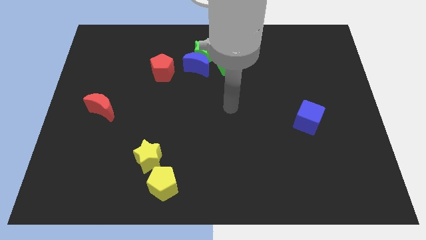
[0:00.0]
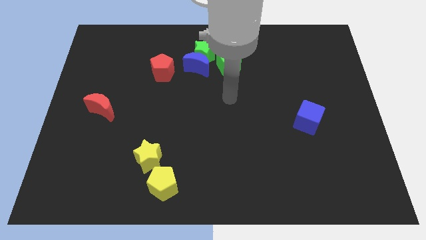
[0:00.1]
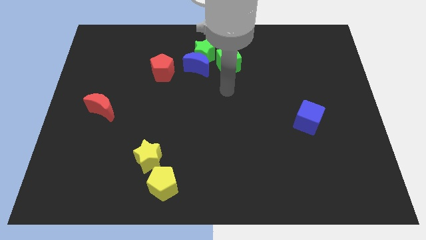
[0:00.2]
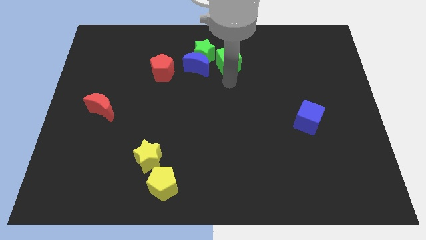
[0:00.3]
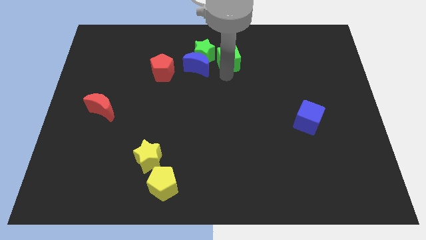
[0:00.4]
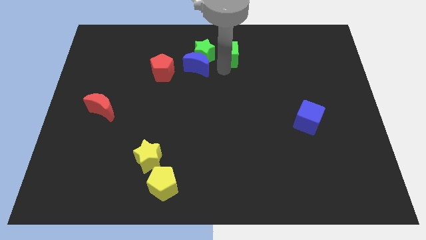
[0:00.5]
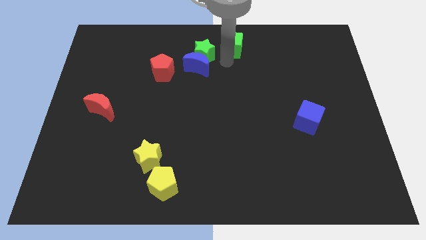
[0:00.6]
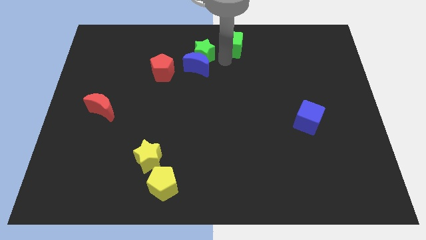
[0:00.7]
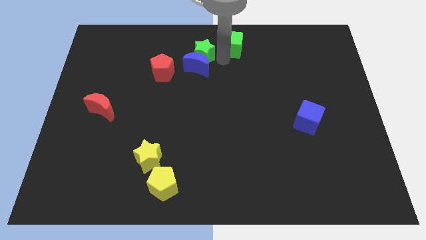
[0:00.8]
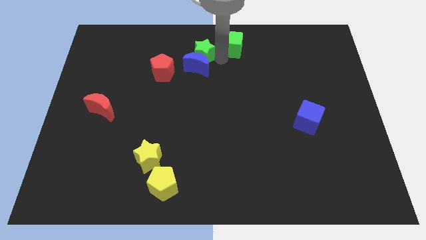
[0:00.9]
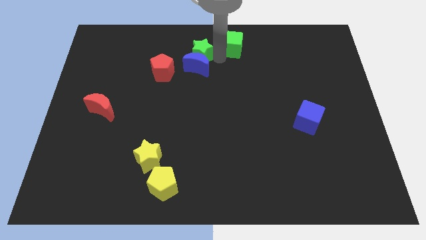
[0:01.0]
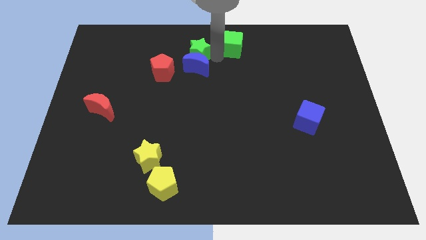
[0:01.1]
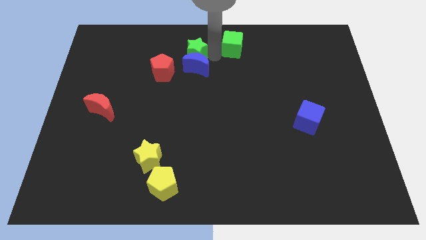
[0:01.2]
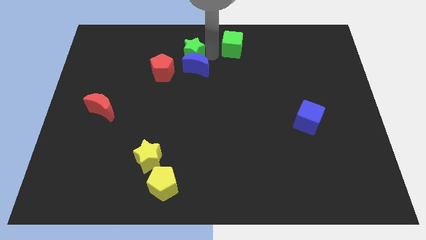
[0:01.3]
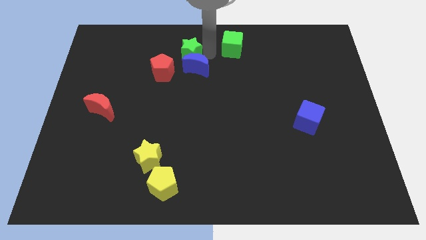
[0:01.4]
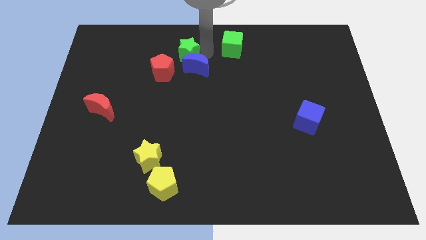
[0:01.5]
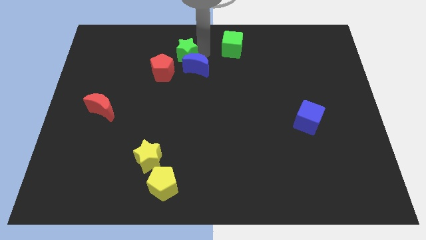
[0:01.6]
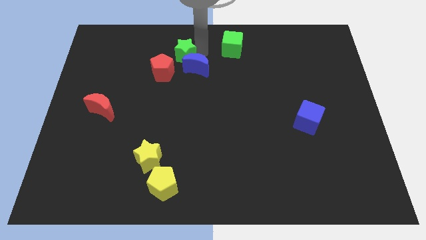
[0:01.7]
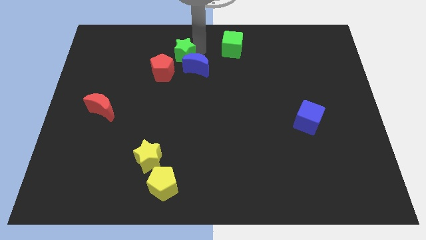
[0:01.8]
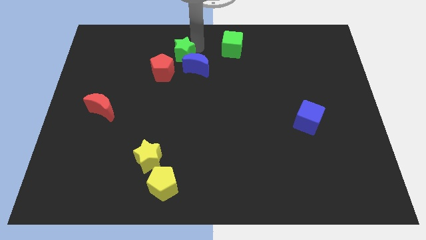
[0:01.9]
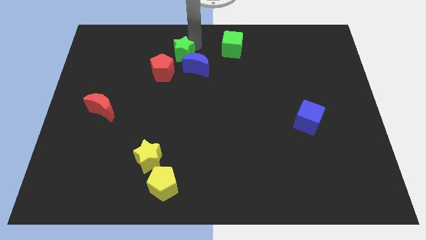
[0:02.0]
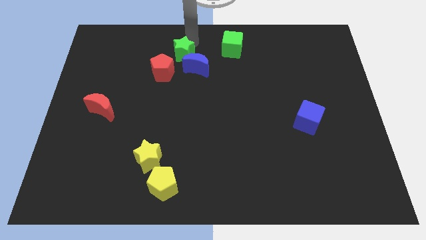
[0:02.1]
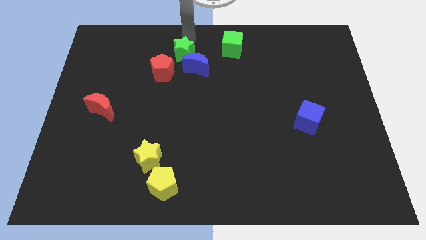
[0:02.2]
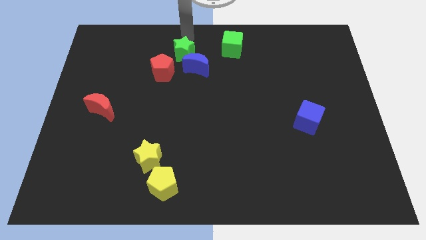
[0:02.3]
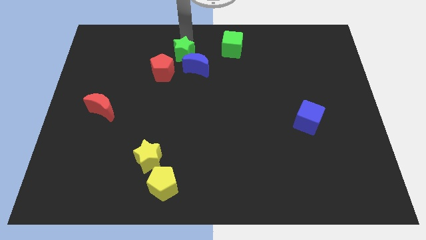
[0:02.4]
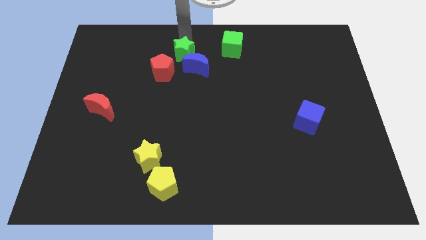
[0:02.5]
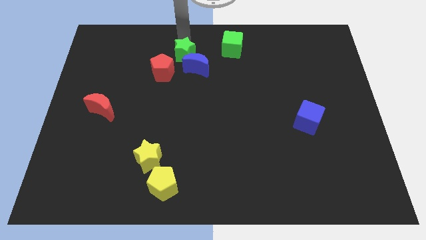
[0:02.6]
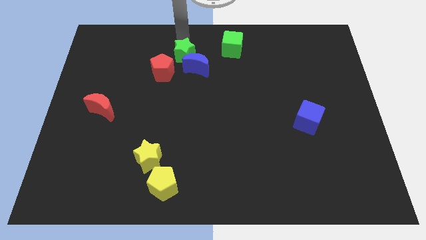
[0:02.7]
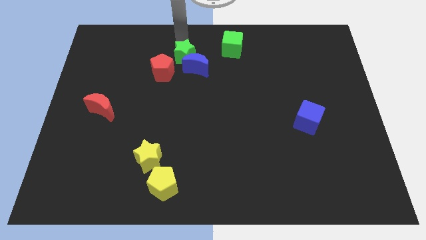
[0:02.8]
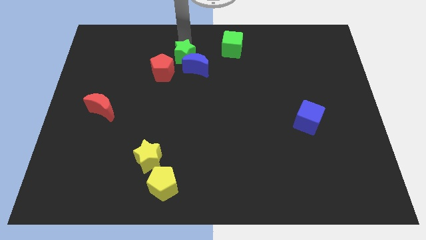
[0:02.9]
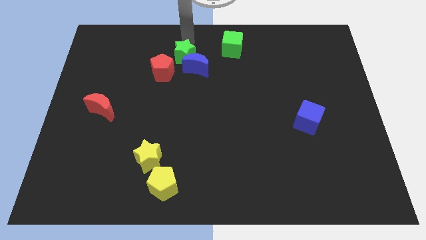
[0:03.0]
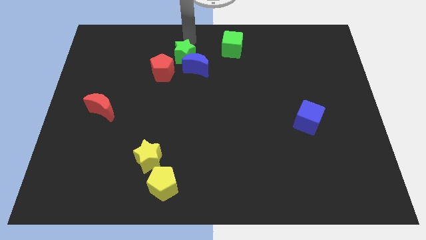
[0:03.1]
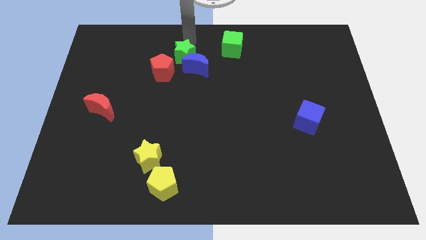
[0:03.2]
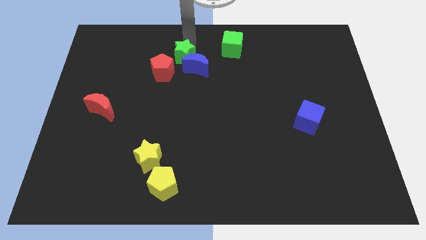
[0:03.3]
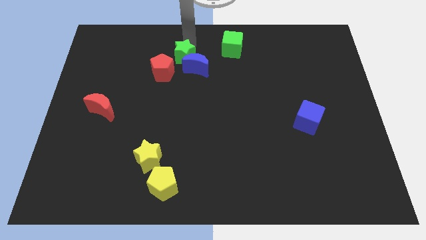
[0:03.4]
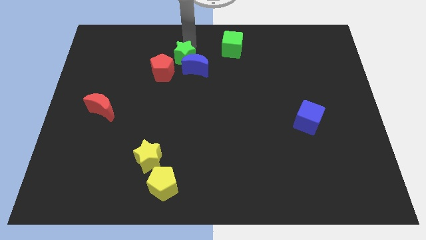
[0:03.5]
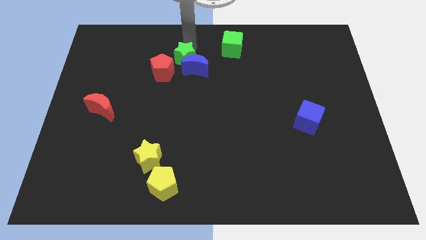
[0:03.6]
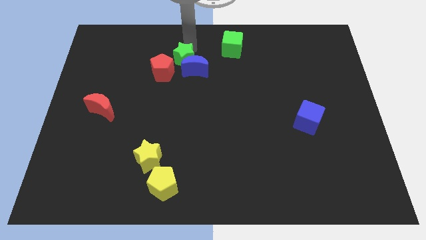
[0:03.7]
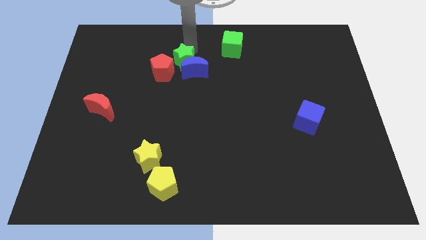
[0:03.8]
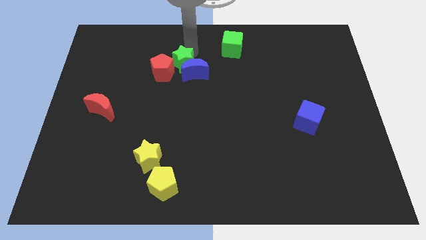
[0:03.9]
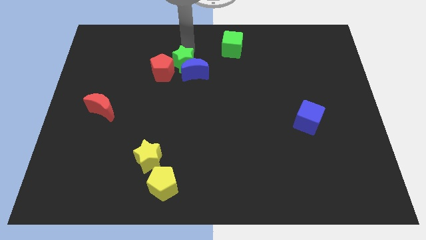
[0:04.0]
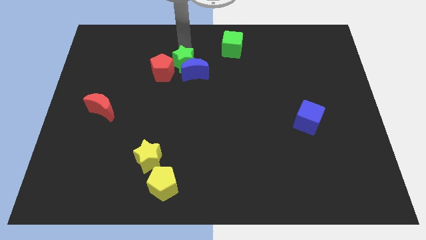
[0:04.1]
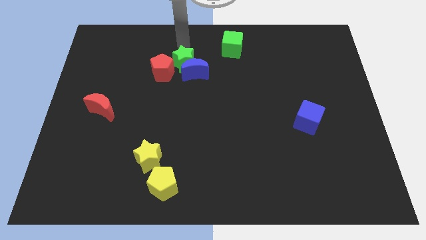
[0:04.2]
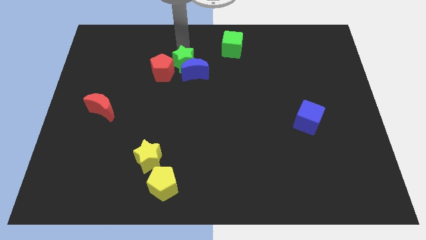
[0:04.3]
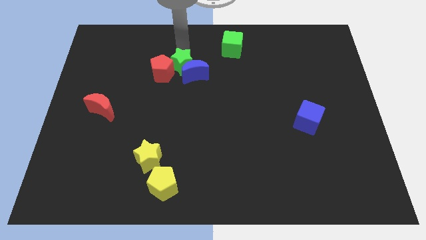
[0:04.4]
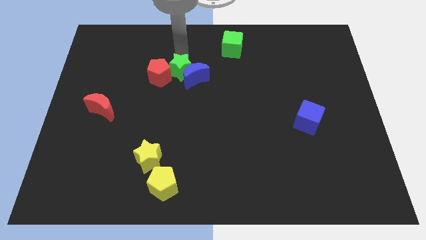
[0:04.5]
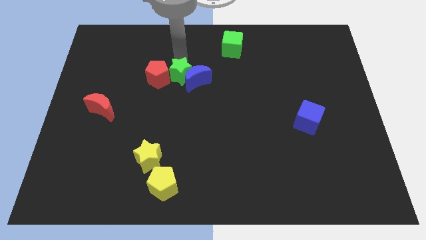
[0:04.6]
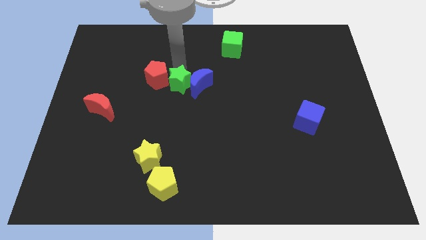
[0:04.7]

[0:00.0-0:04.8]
slide the green star a little down

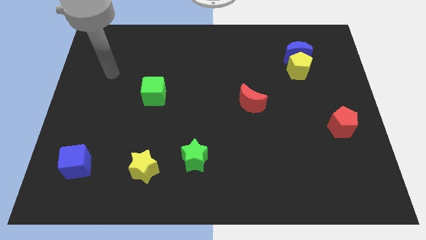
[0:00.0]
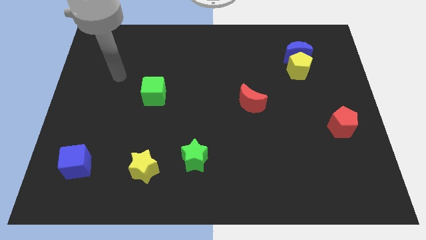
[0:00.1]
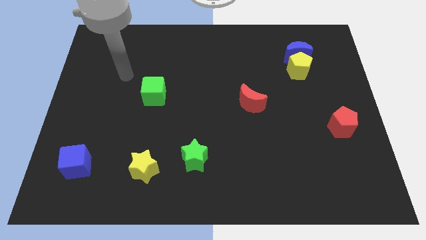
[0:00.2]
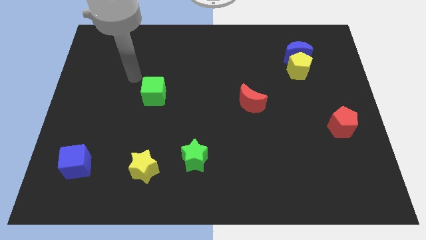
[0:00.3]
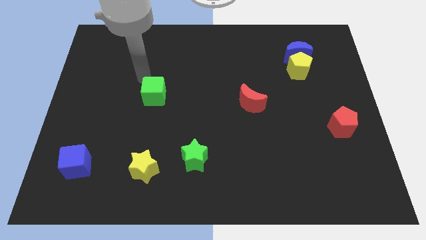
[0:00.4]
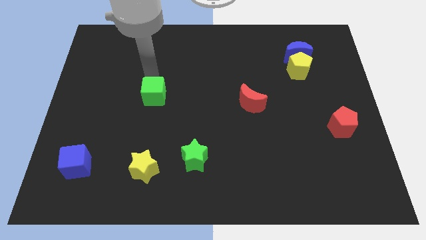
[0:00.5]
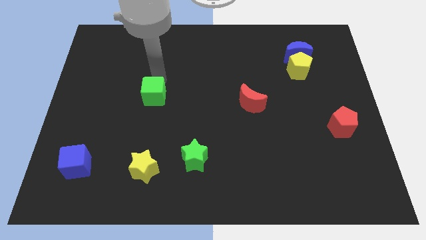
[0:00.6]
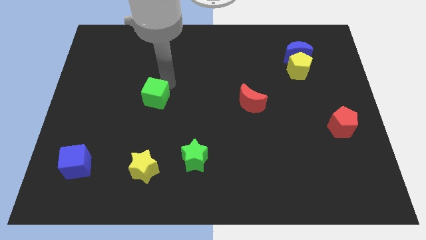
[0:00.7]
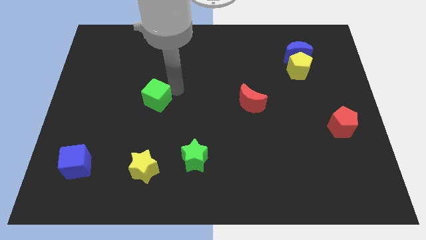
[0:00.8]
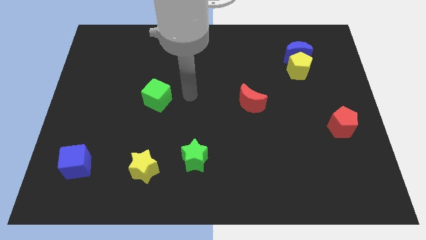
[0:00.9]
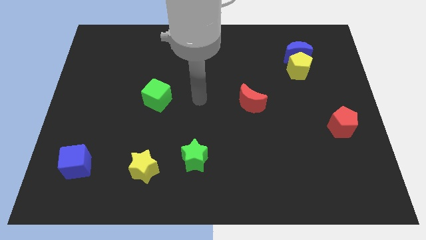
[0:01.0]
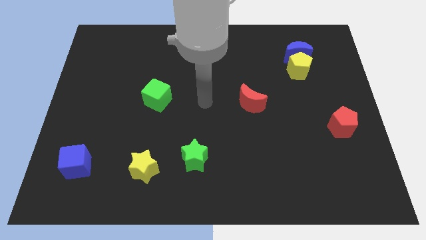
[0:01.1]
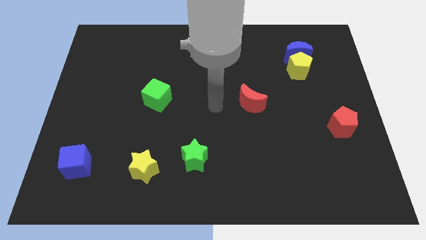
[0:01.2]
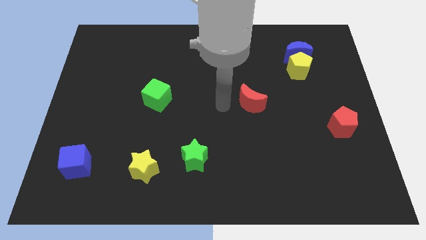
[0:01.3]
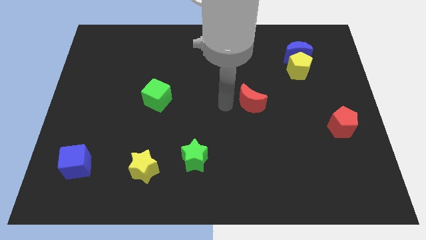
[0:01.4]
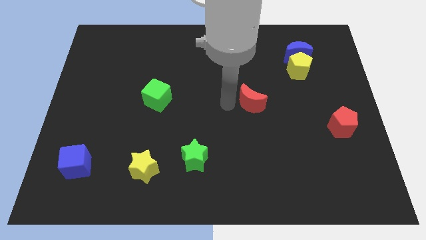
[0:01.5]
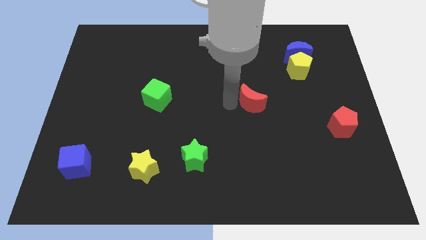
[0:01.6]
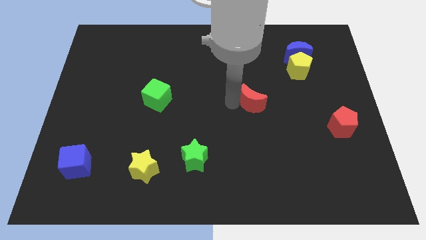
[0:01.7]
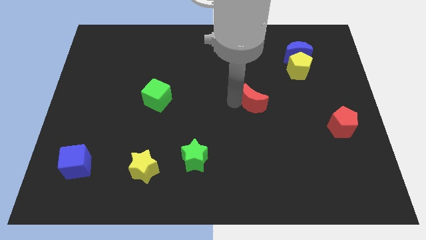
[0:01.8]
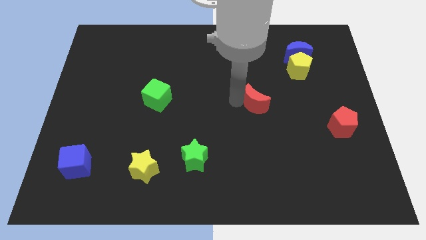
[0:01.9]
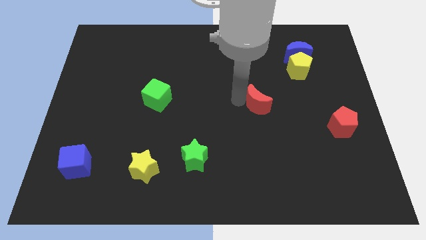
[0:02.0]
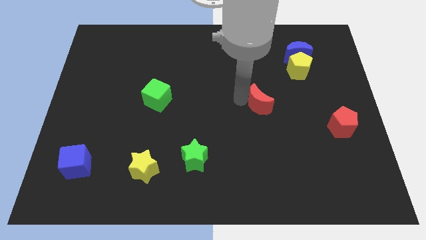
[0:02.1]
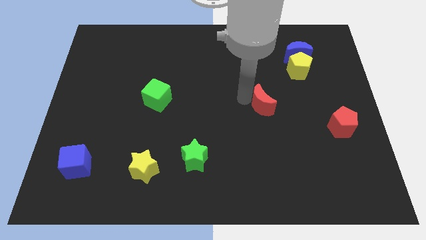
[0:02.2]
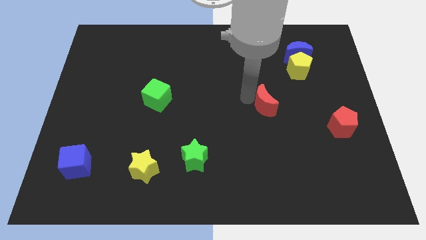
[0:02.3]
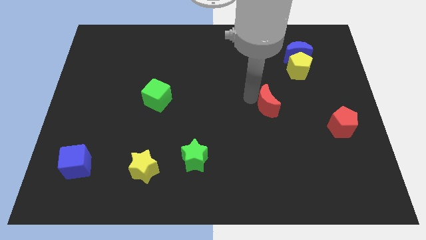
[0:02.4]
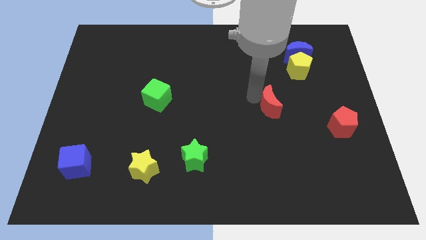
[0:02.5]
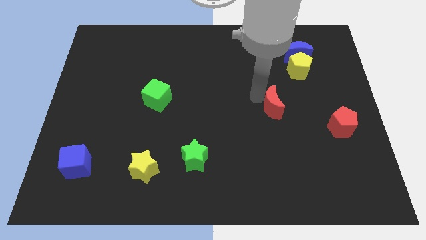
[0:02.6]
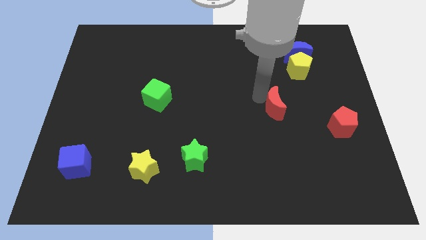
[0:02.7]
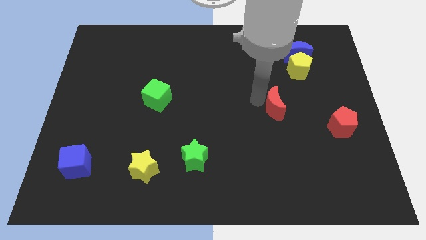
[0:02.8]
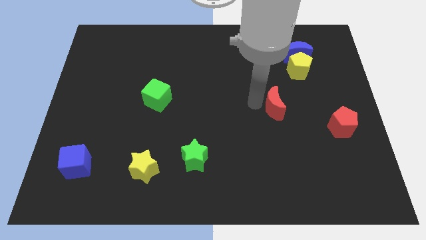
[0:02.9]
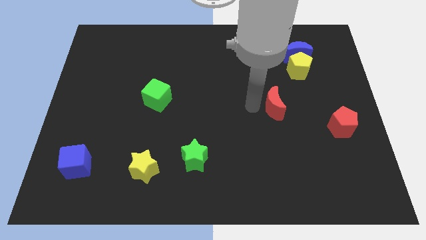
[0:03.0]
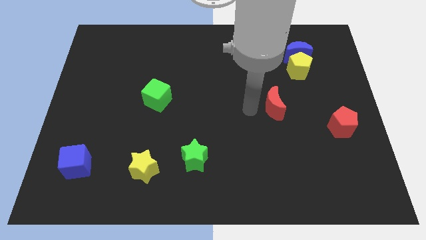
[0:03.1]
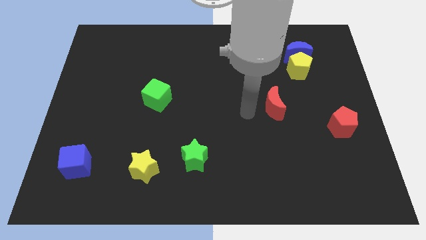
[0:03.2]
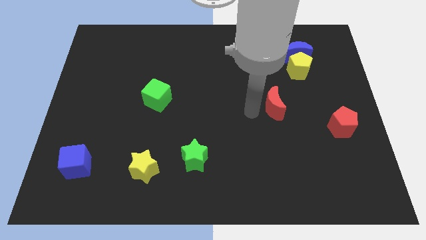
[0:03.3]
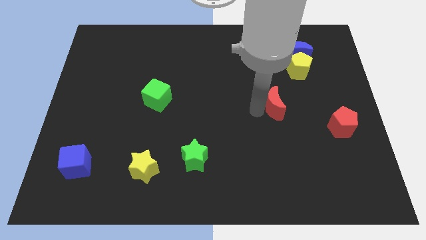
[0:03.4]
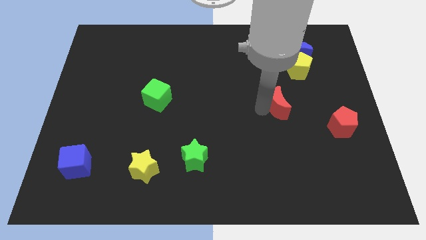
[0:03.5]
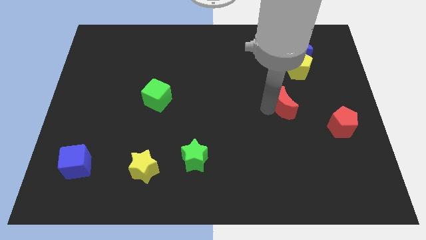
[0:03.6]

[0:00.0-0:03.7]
slide the red moon somewhat right
